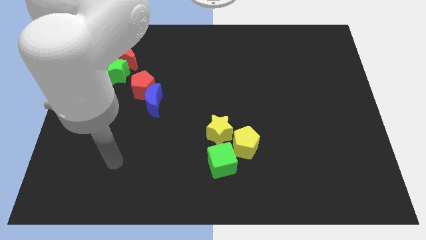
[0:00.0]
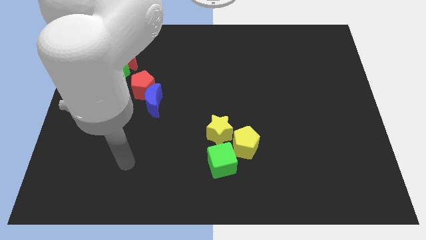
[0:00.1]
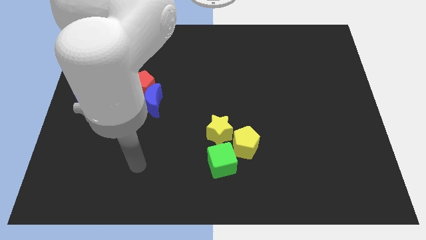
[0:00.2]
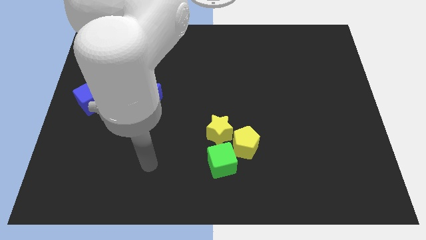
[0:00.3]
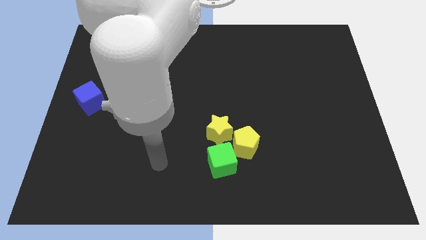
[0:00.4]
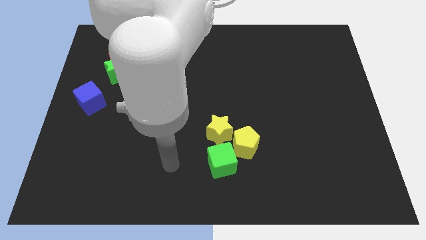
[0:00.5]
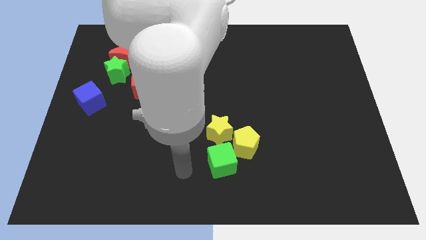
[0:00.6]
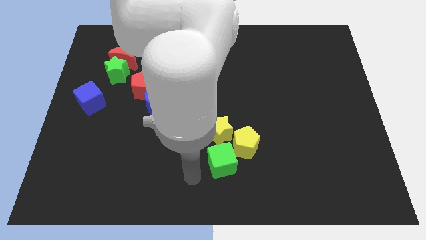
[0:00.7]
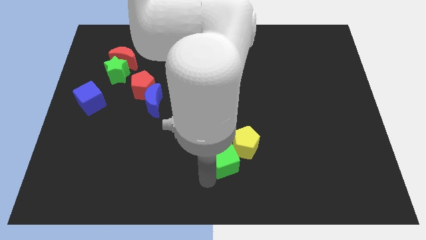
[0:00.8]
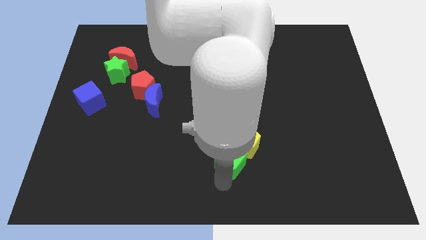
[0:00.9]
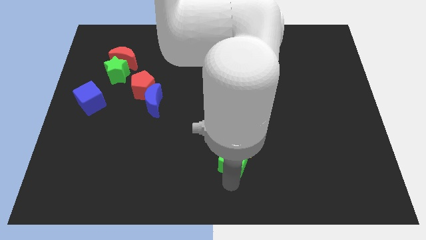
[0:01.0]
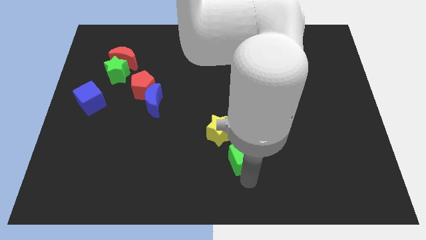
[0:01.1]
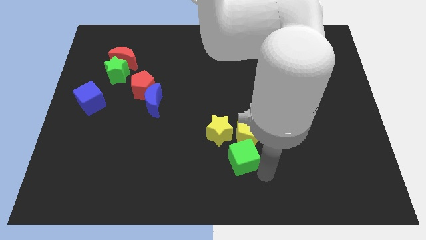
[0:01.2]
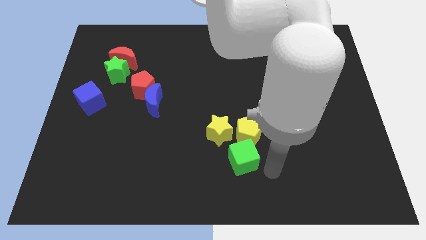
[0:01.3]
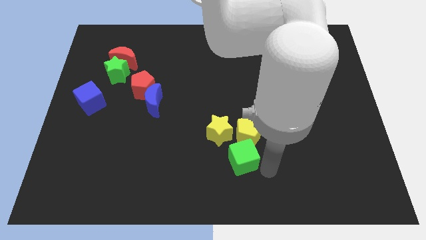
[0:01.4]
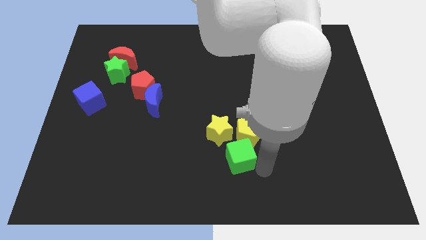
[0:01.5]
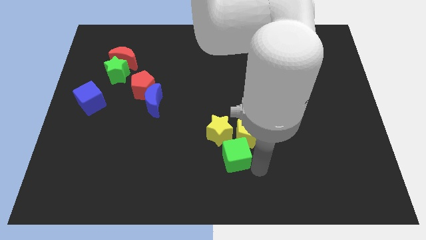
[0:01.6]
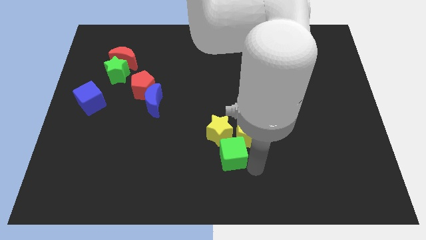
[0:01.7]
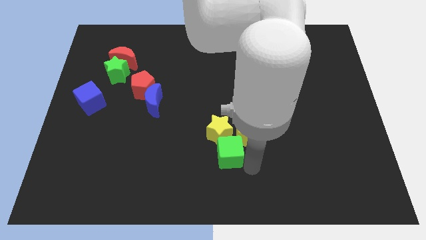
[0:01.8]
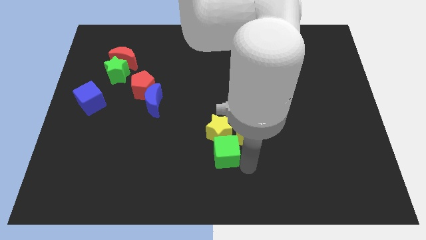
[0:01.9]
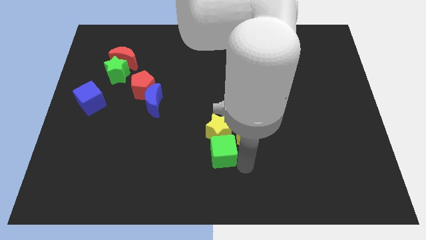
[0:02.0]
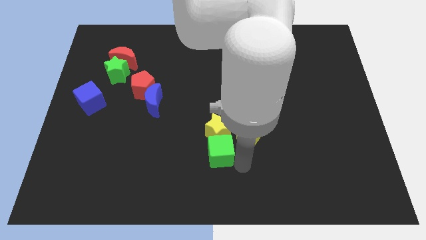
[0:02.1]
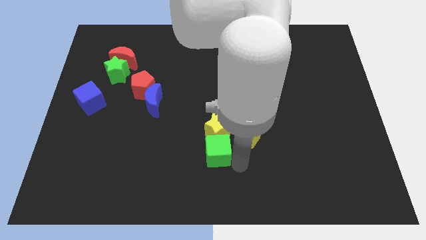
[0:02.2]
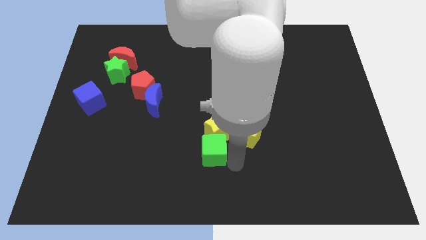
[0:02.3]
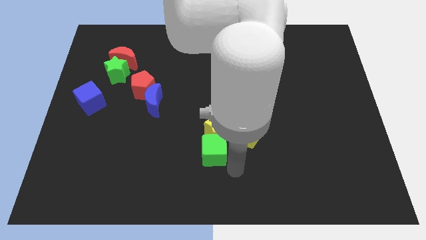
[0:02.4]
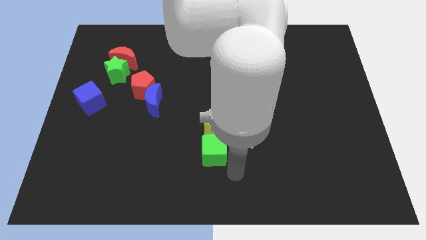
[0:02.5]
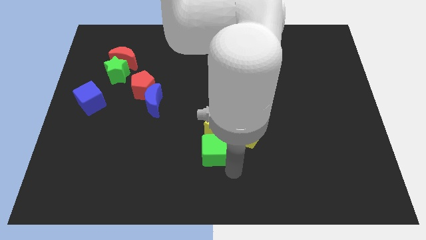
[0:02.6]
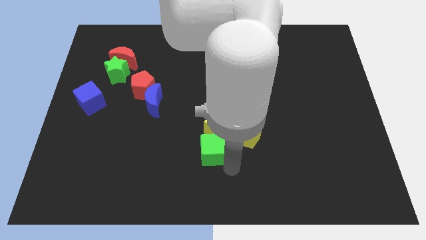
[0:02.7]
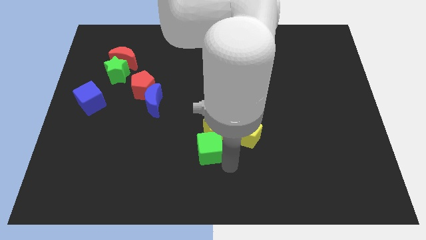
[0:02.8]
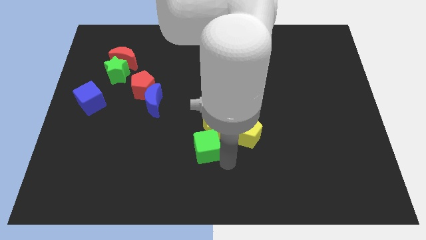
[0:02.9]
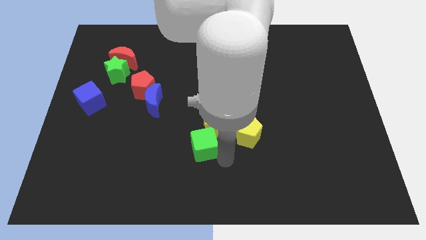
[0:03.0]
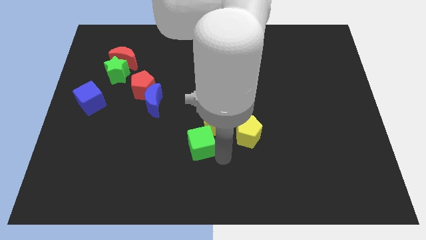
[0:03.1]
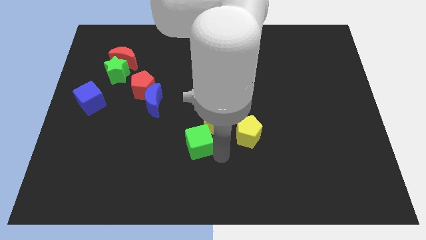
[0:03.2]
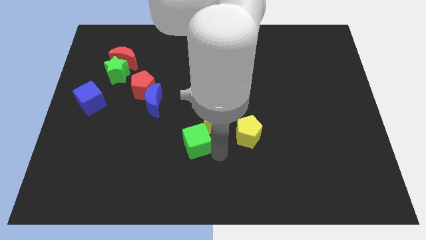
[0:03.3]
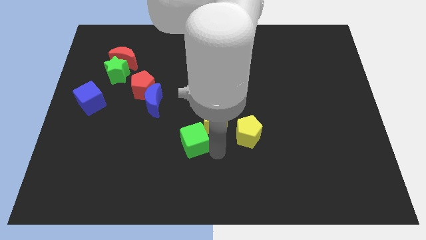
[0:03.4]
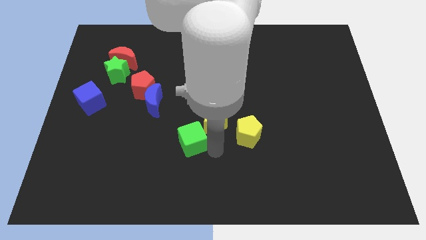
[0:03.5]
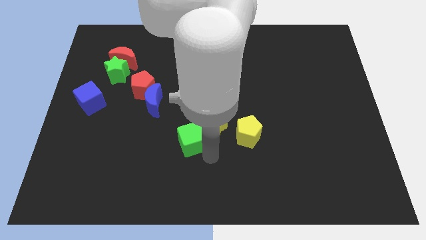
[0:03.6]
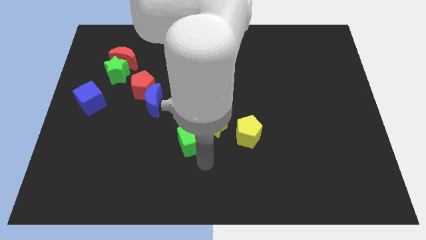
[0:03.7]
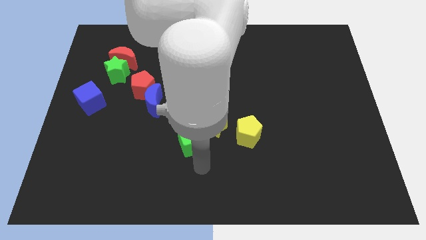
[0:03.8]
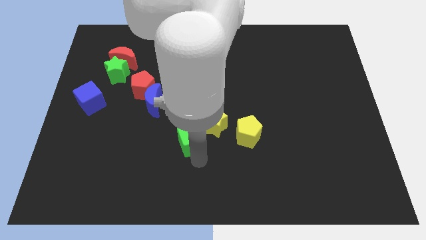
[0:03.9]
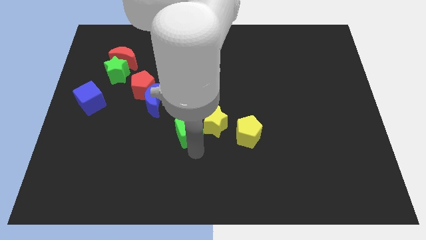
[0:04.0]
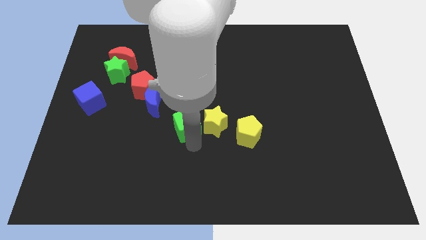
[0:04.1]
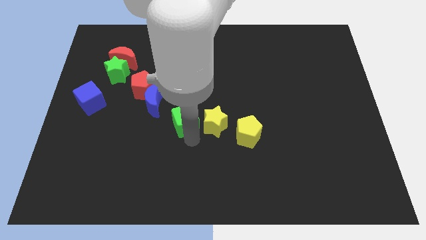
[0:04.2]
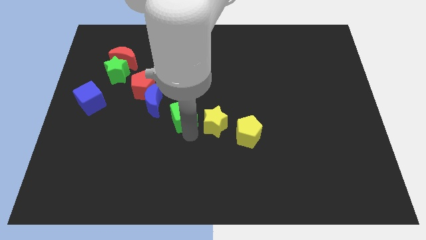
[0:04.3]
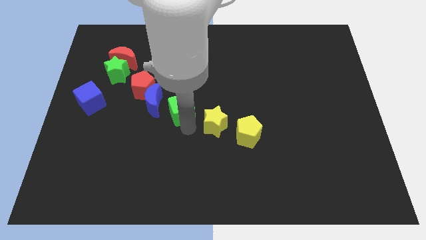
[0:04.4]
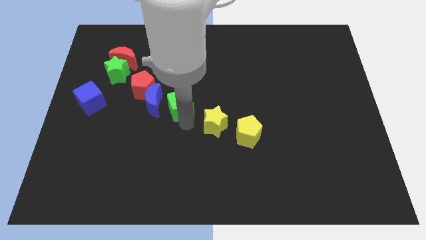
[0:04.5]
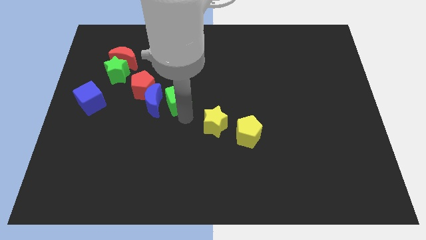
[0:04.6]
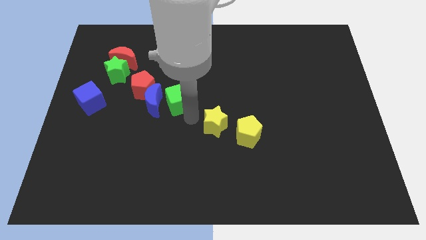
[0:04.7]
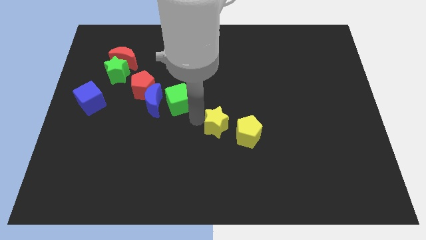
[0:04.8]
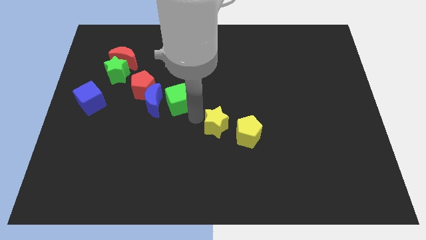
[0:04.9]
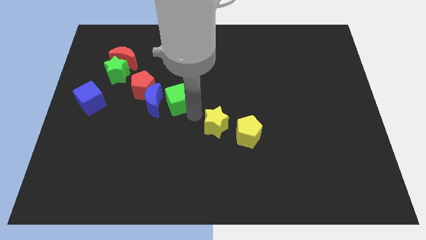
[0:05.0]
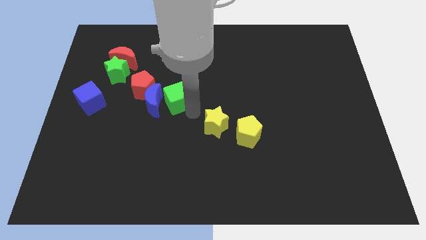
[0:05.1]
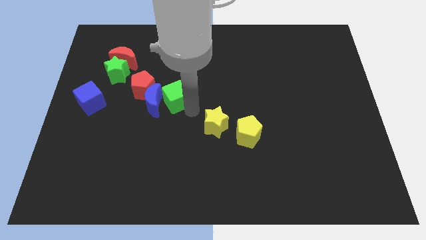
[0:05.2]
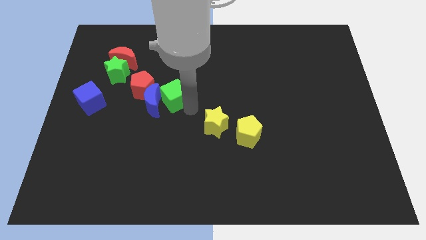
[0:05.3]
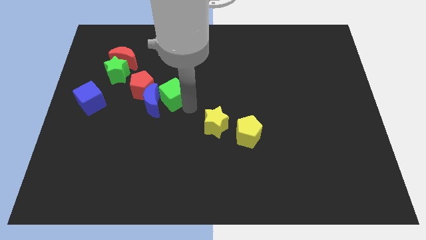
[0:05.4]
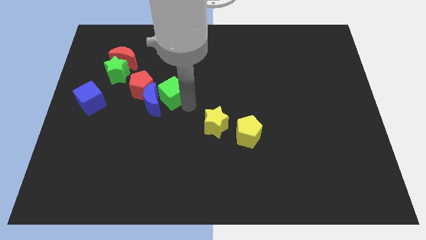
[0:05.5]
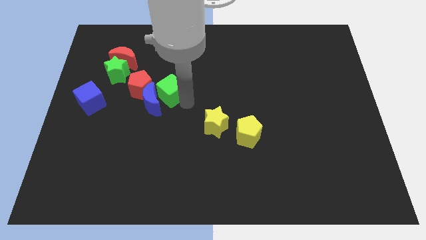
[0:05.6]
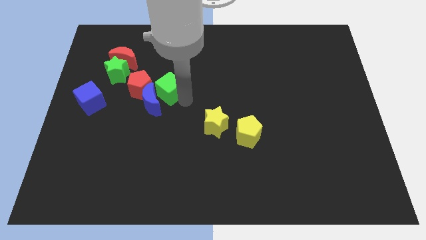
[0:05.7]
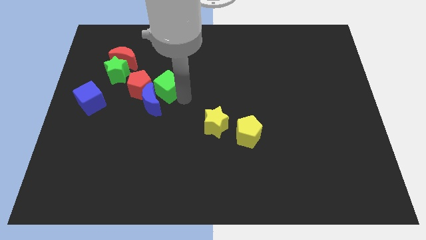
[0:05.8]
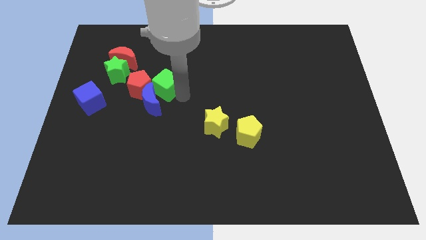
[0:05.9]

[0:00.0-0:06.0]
push the green cube next to the red pentagon

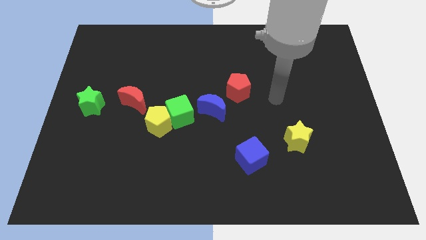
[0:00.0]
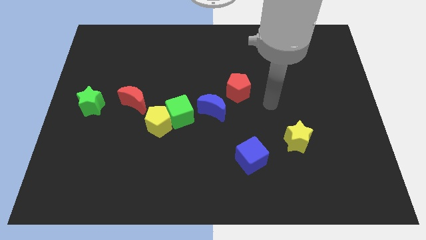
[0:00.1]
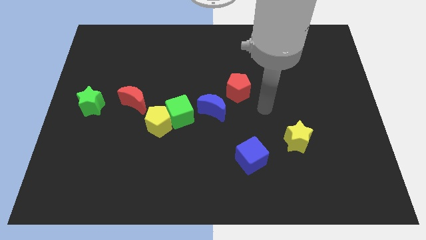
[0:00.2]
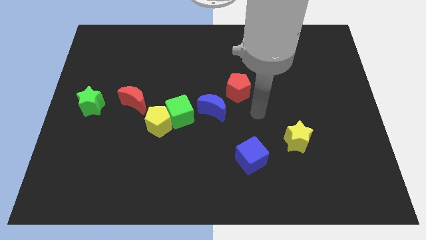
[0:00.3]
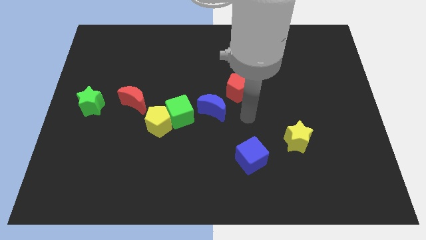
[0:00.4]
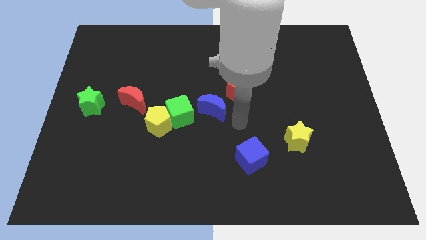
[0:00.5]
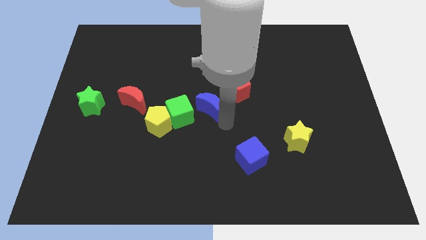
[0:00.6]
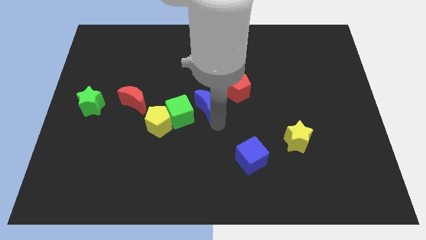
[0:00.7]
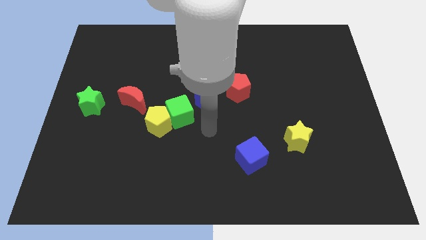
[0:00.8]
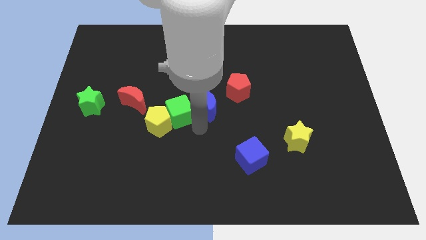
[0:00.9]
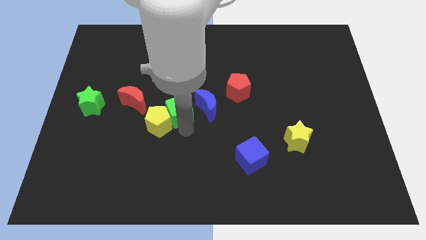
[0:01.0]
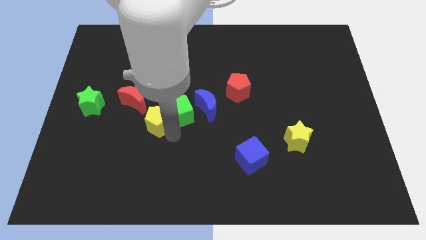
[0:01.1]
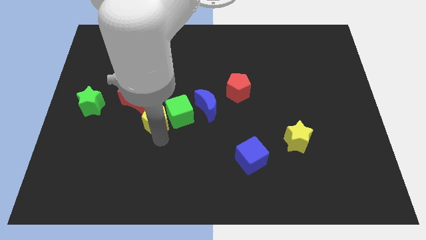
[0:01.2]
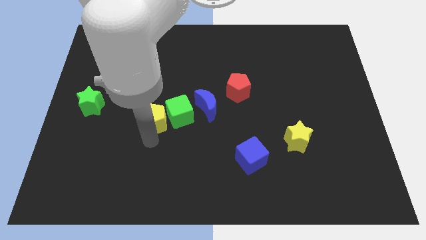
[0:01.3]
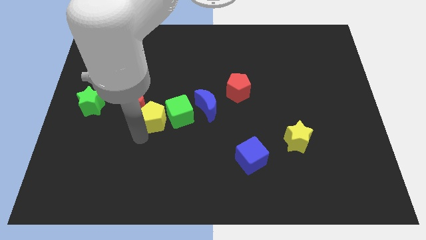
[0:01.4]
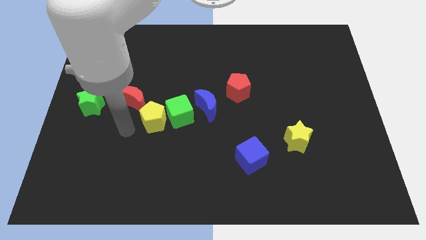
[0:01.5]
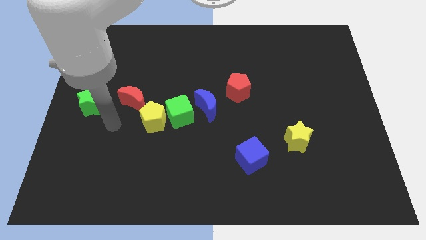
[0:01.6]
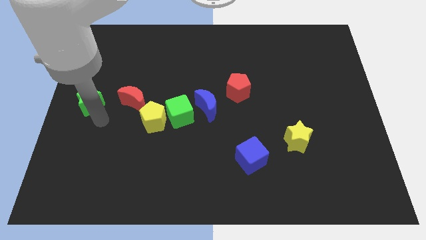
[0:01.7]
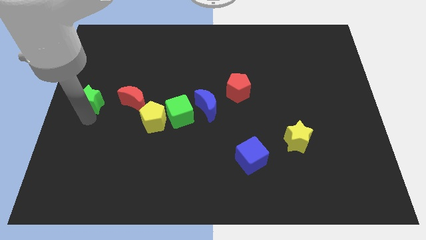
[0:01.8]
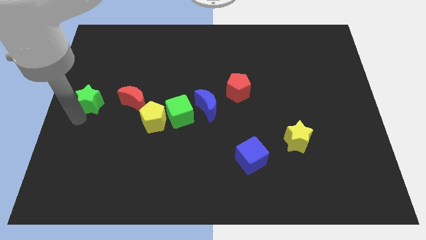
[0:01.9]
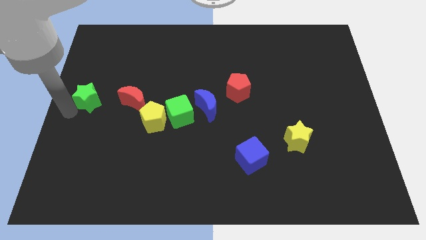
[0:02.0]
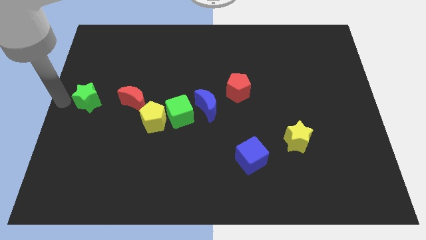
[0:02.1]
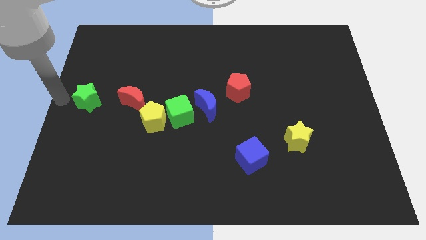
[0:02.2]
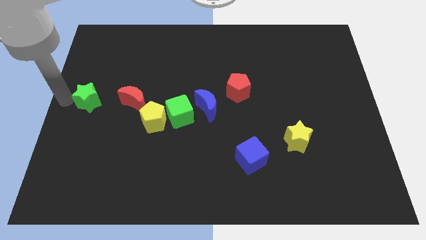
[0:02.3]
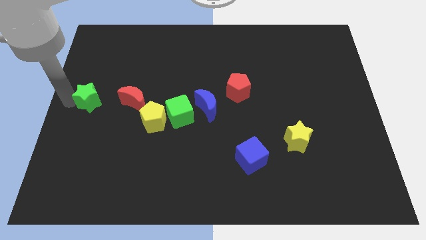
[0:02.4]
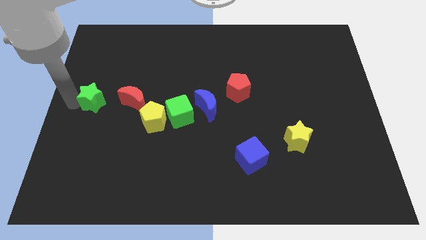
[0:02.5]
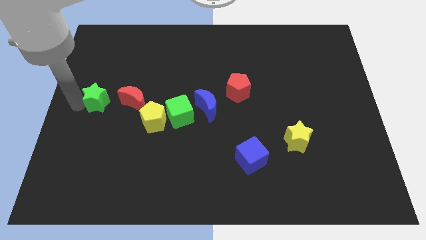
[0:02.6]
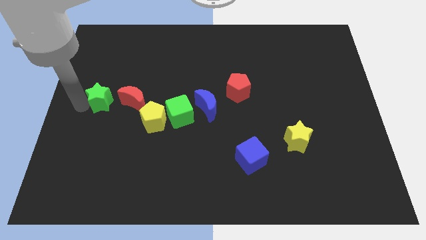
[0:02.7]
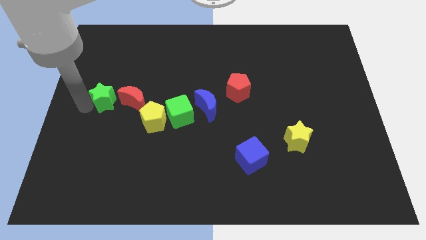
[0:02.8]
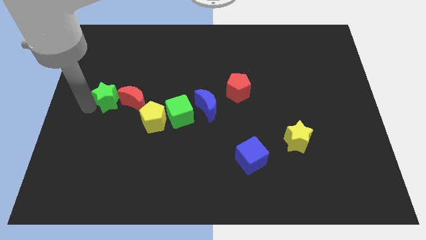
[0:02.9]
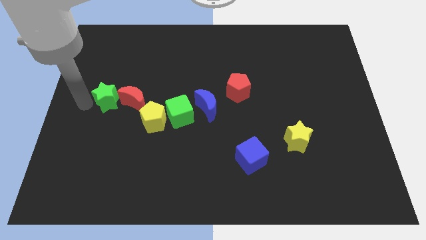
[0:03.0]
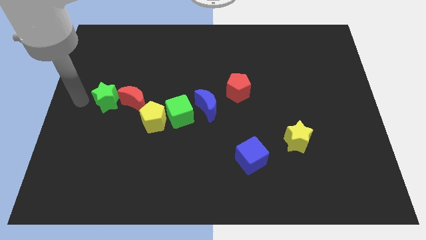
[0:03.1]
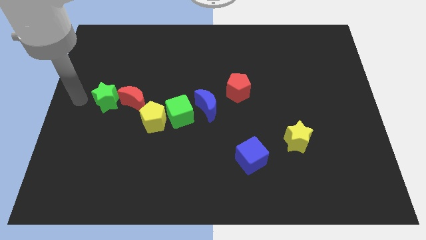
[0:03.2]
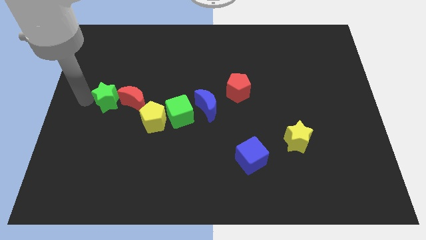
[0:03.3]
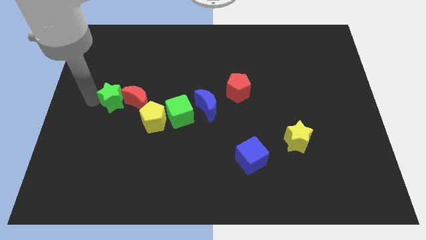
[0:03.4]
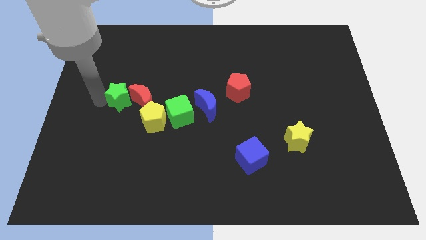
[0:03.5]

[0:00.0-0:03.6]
push the green star next to the red moon
